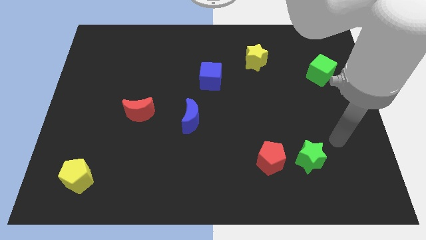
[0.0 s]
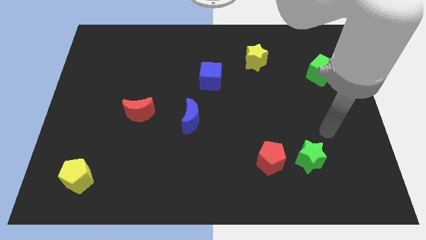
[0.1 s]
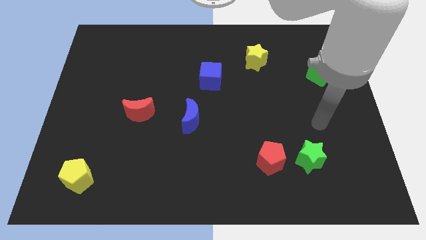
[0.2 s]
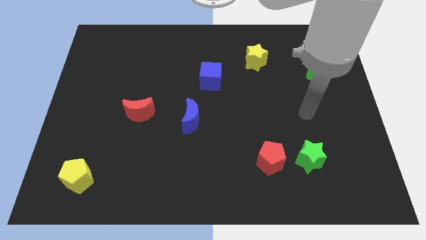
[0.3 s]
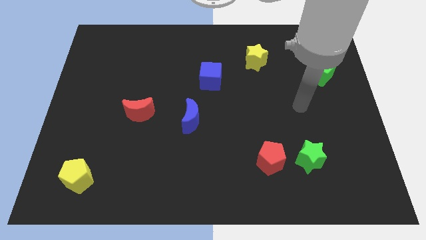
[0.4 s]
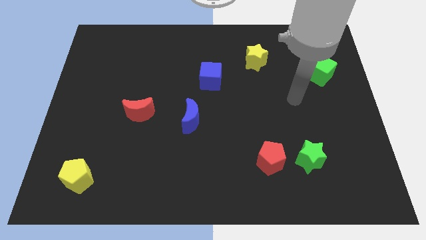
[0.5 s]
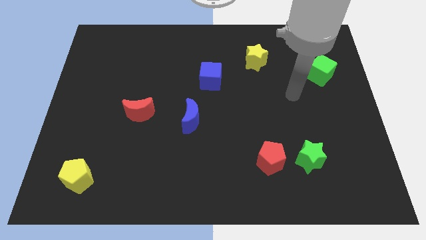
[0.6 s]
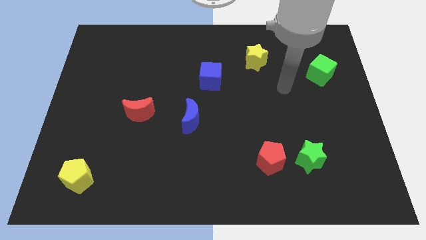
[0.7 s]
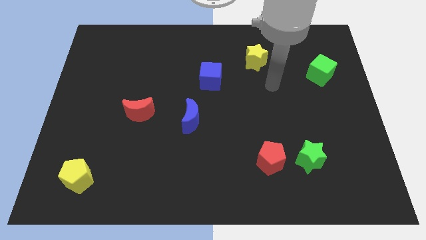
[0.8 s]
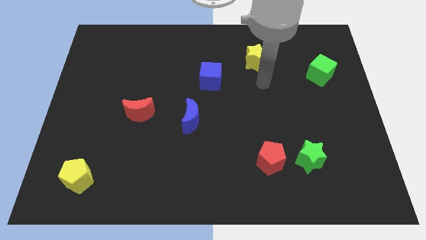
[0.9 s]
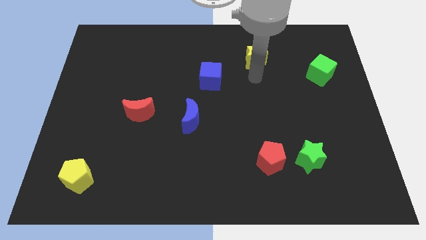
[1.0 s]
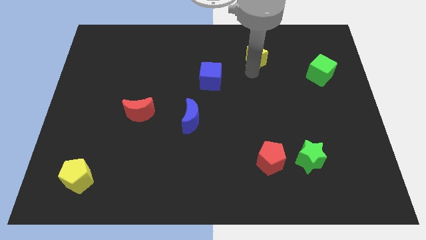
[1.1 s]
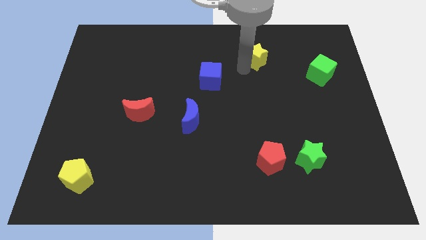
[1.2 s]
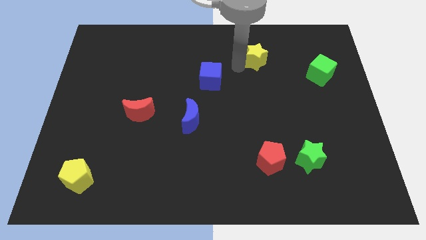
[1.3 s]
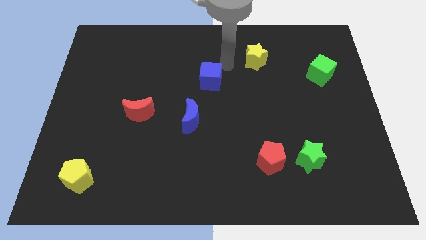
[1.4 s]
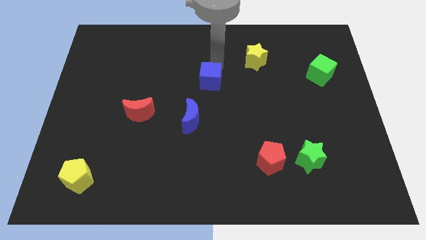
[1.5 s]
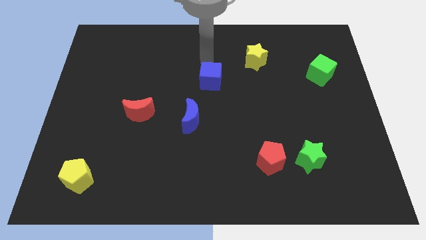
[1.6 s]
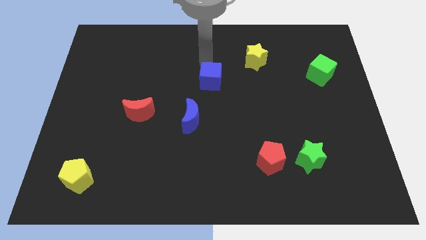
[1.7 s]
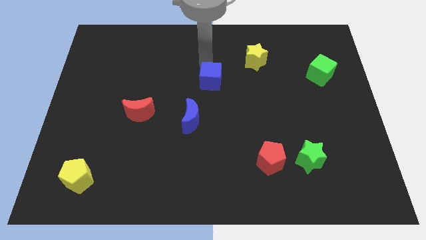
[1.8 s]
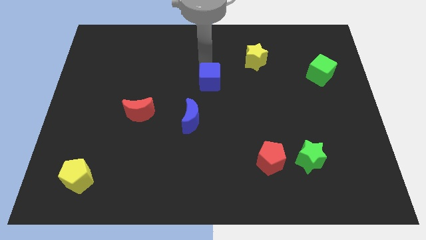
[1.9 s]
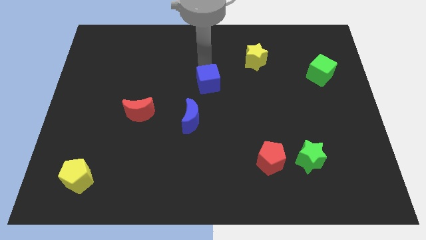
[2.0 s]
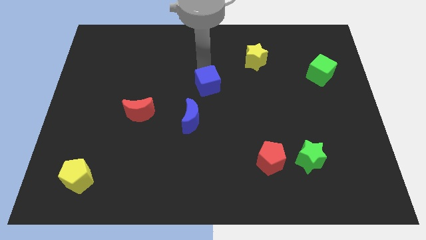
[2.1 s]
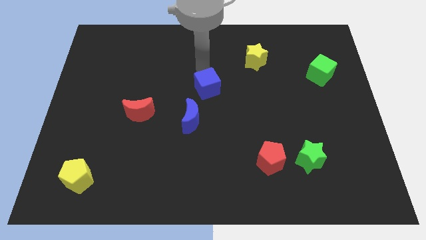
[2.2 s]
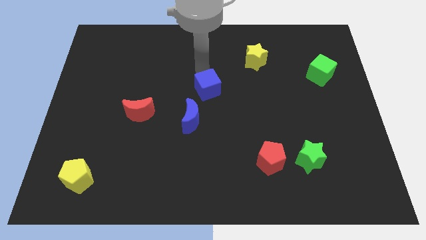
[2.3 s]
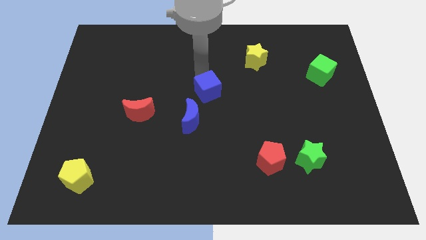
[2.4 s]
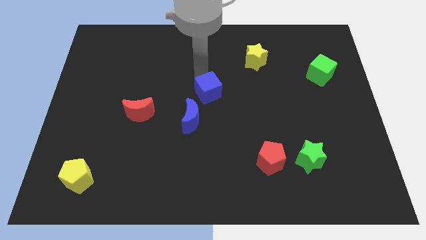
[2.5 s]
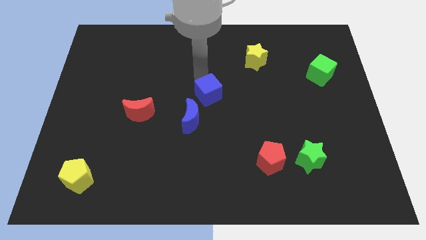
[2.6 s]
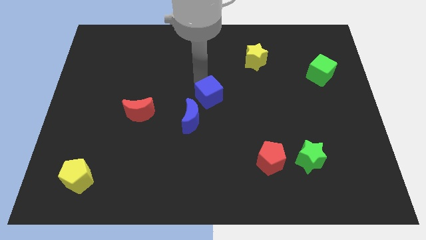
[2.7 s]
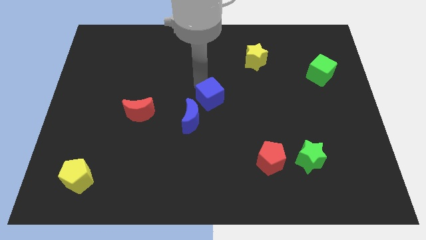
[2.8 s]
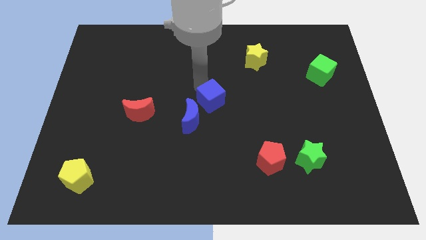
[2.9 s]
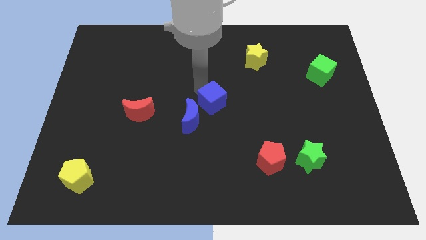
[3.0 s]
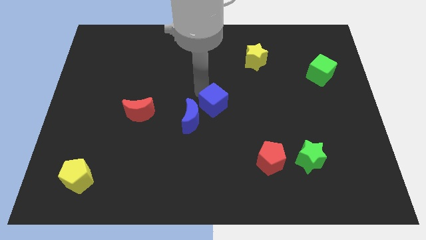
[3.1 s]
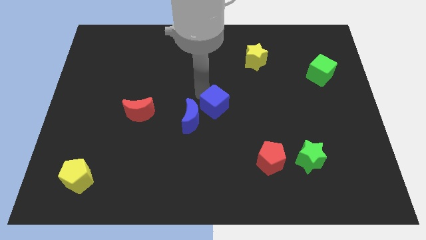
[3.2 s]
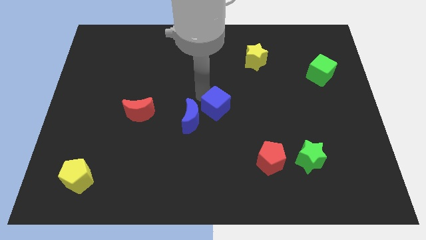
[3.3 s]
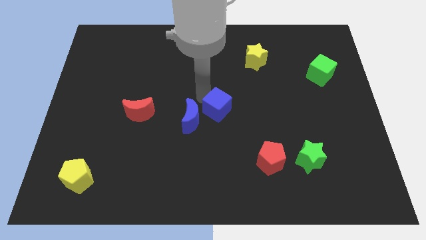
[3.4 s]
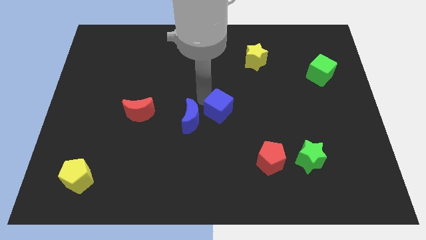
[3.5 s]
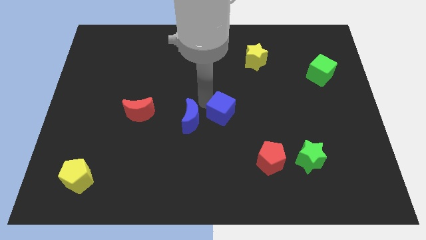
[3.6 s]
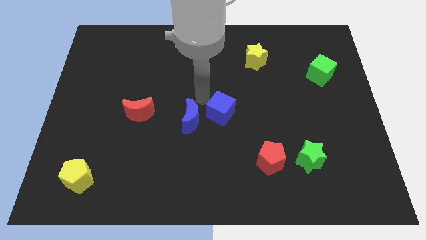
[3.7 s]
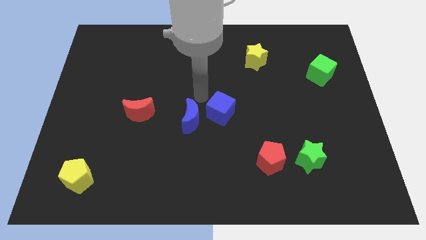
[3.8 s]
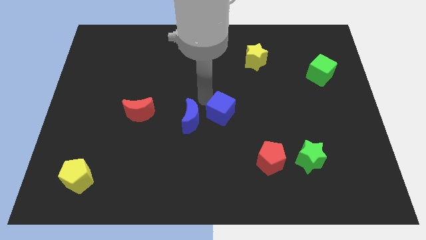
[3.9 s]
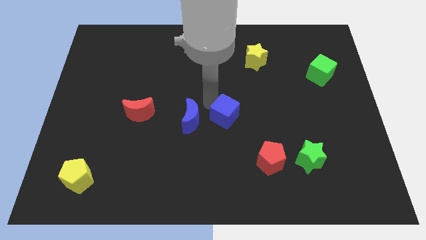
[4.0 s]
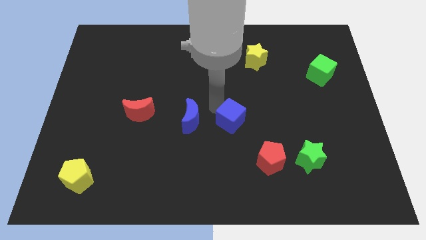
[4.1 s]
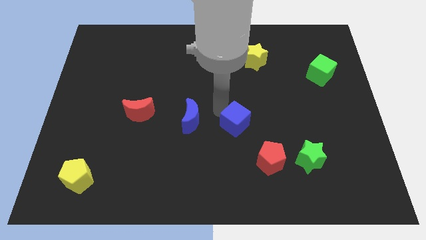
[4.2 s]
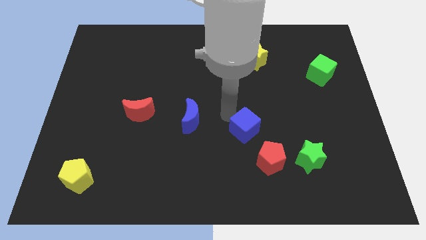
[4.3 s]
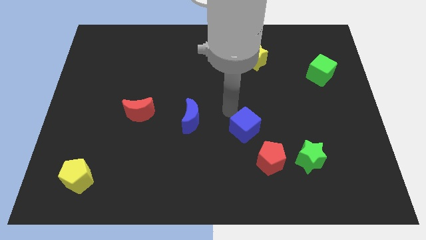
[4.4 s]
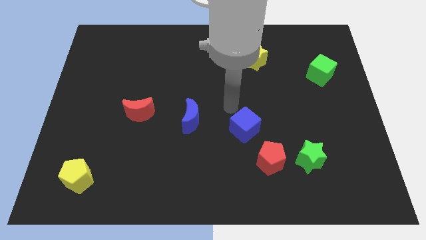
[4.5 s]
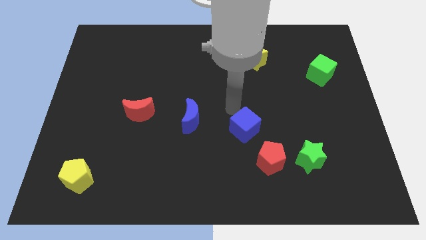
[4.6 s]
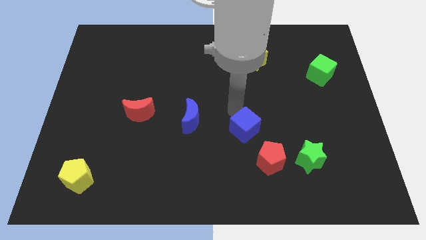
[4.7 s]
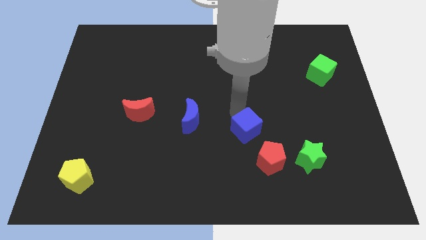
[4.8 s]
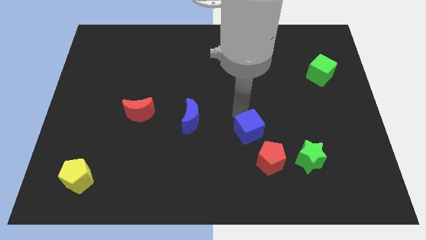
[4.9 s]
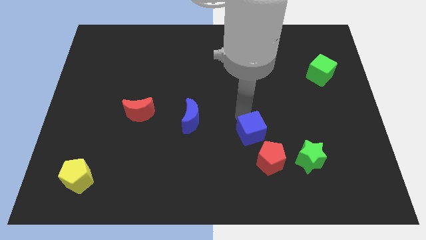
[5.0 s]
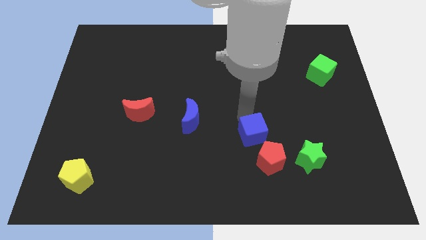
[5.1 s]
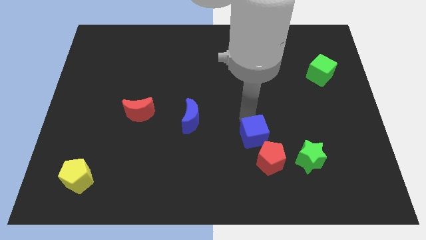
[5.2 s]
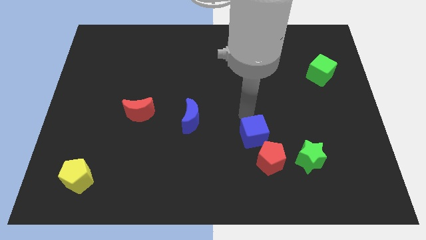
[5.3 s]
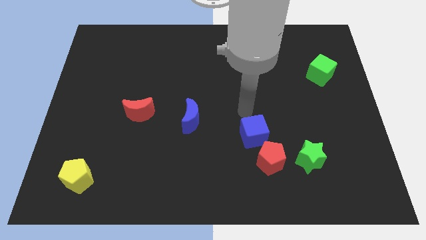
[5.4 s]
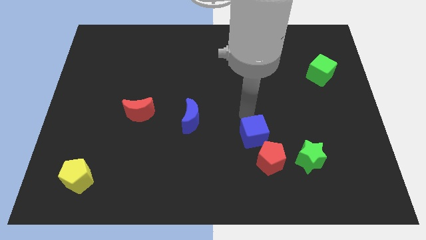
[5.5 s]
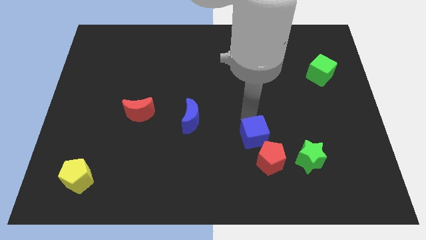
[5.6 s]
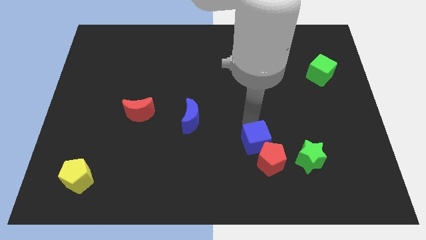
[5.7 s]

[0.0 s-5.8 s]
slide the blue cube next to the red pentagon
